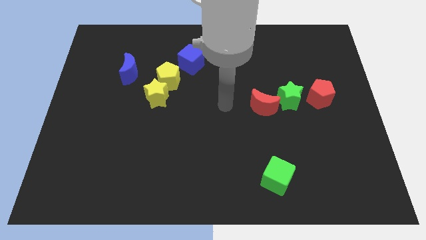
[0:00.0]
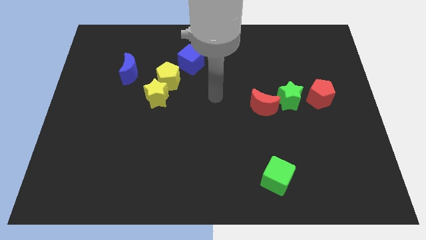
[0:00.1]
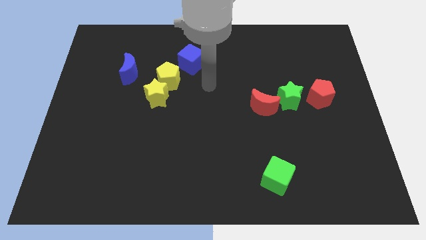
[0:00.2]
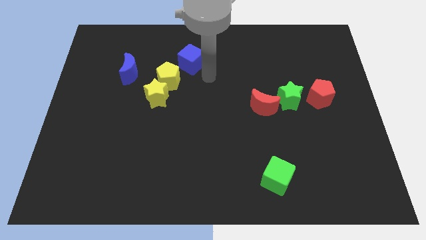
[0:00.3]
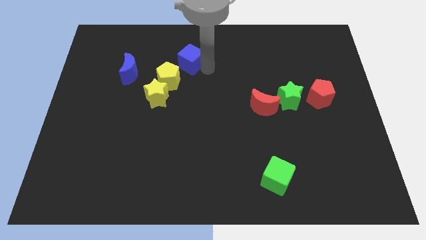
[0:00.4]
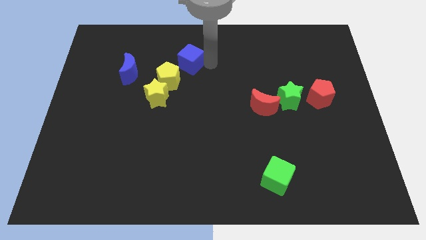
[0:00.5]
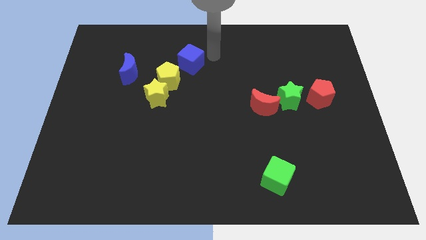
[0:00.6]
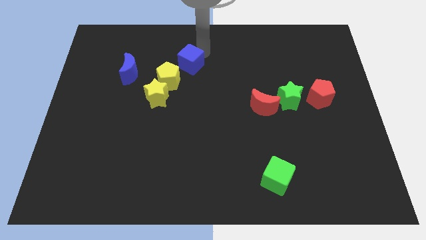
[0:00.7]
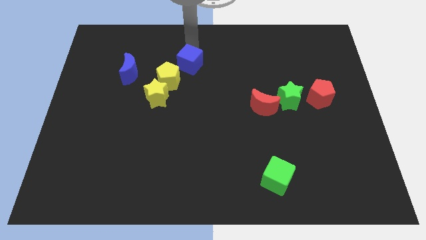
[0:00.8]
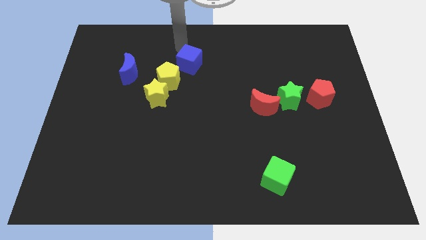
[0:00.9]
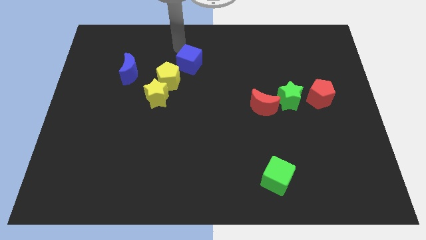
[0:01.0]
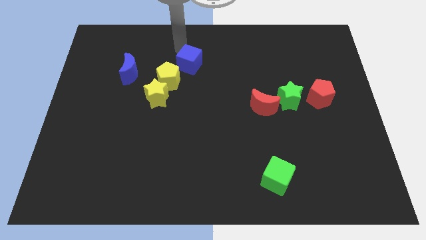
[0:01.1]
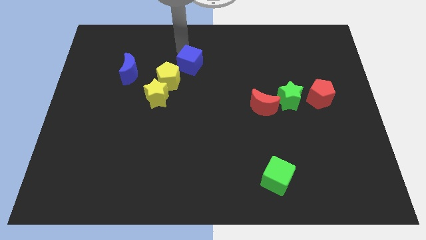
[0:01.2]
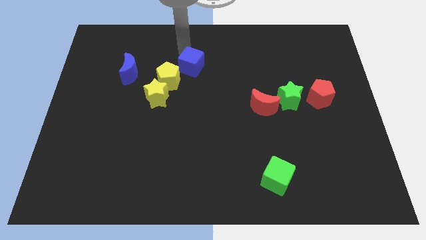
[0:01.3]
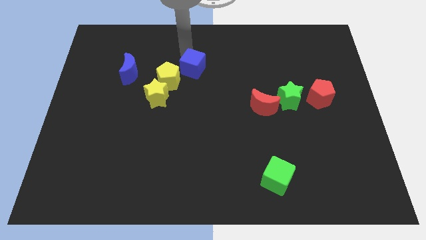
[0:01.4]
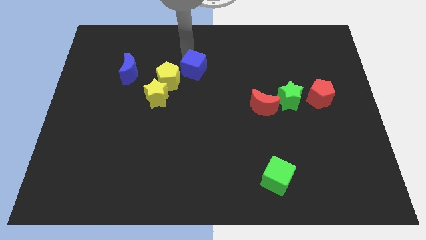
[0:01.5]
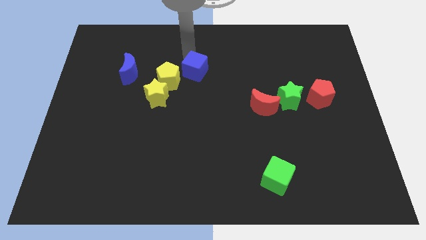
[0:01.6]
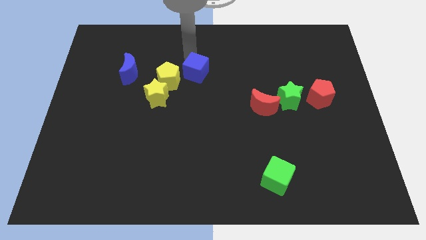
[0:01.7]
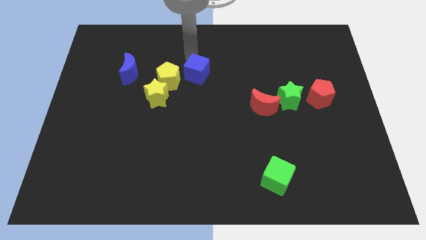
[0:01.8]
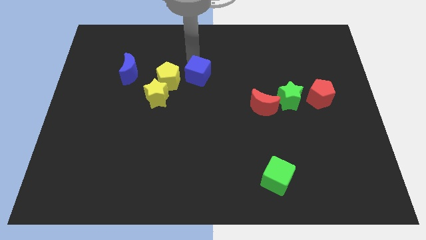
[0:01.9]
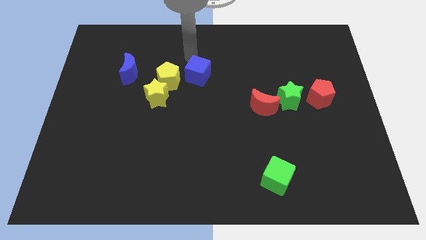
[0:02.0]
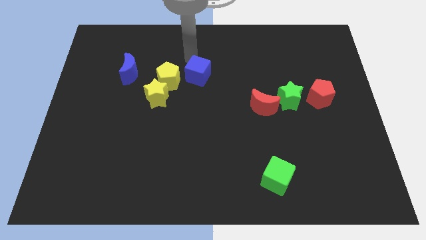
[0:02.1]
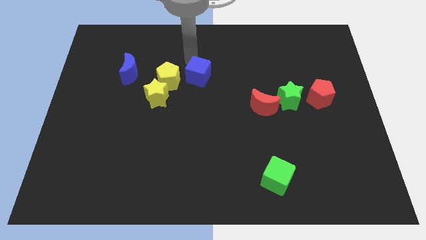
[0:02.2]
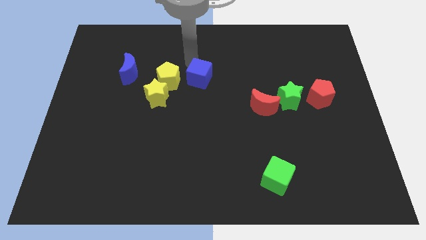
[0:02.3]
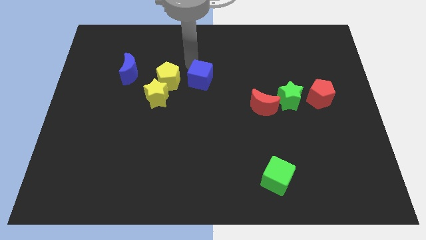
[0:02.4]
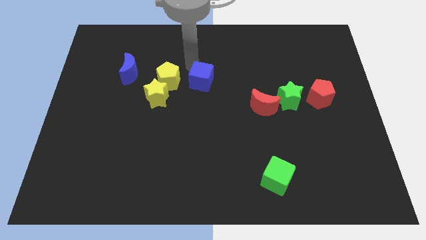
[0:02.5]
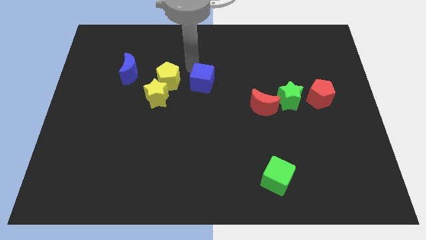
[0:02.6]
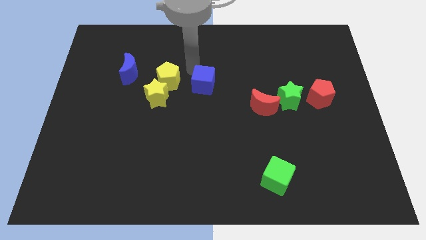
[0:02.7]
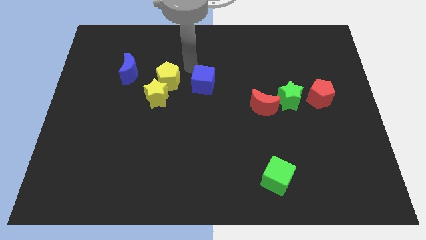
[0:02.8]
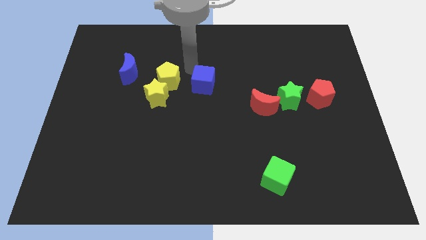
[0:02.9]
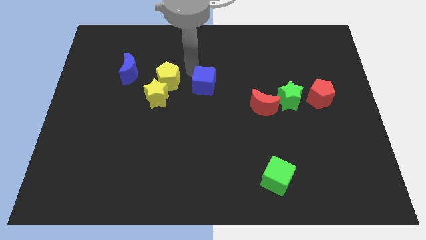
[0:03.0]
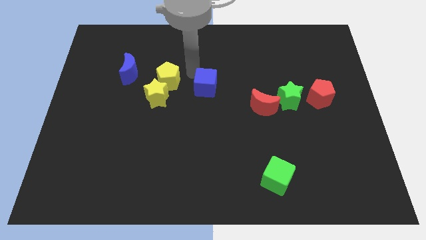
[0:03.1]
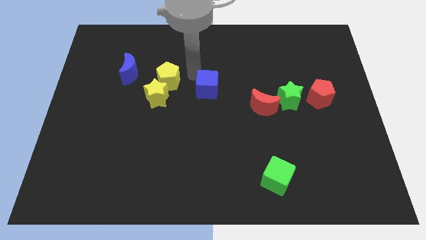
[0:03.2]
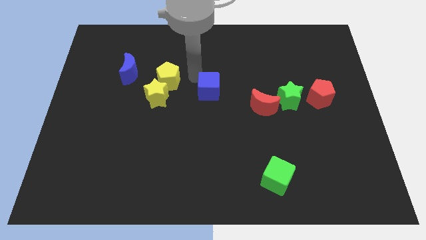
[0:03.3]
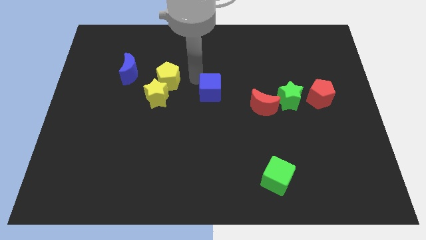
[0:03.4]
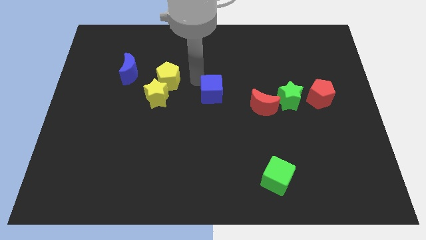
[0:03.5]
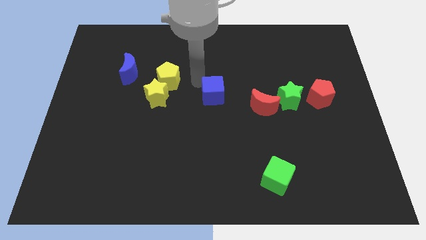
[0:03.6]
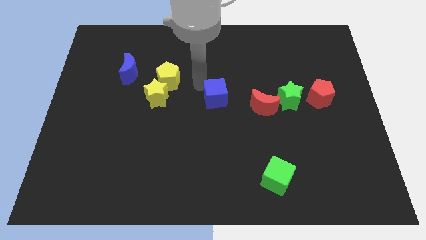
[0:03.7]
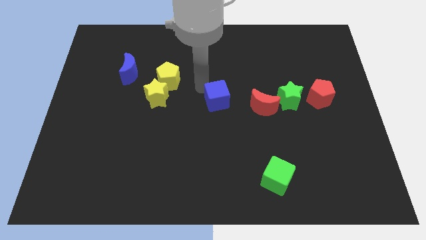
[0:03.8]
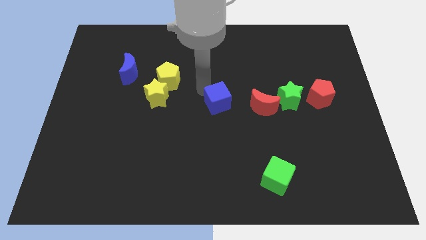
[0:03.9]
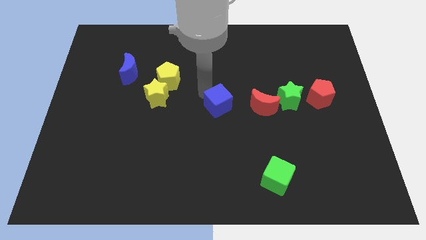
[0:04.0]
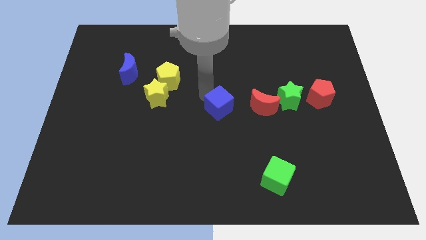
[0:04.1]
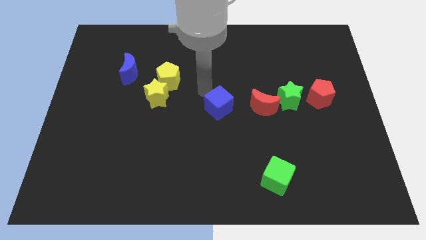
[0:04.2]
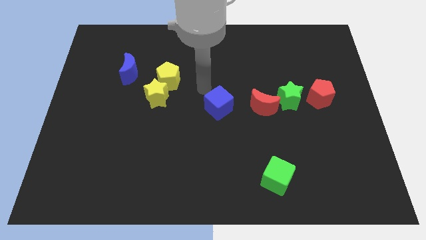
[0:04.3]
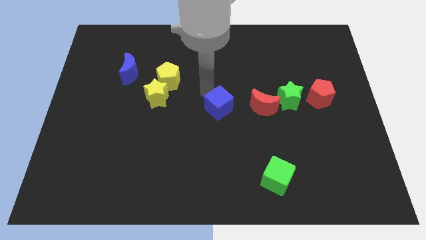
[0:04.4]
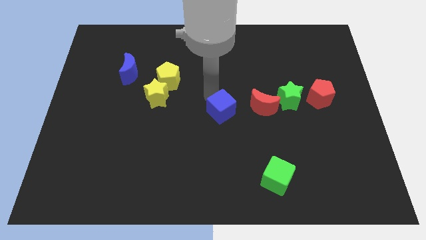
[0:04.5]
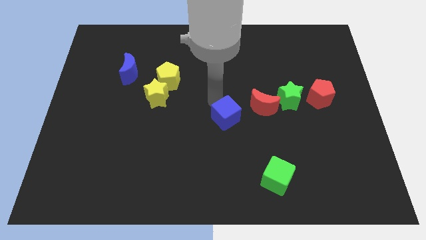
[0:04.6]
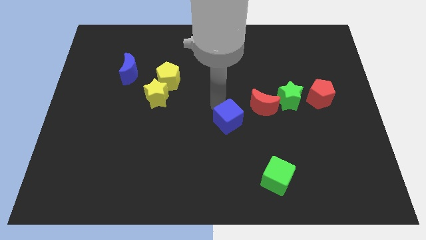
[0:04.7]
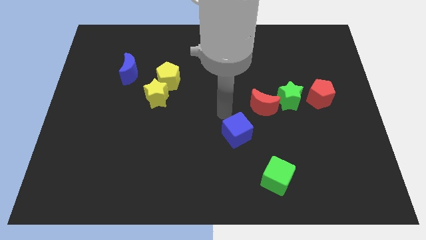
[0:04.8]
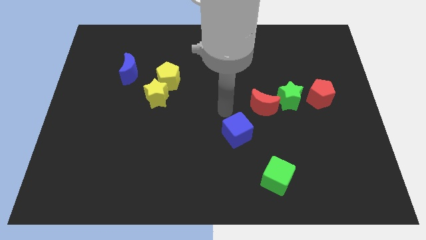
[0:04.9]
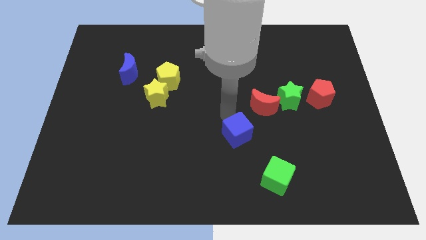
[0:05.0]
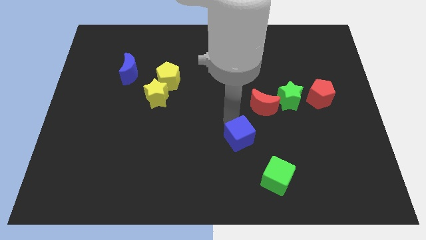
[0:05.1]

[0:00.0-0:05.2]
put the blue cube diagonally up and to the left of the green cube

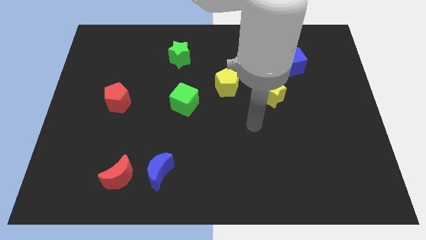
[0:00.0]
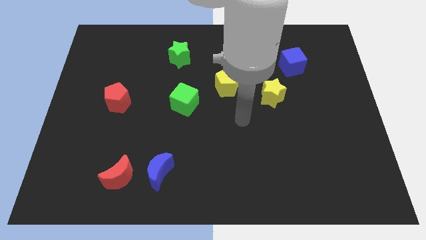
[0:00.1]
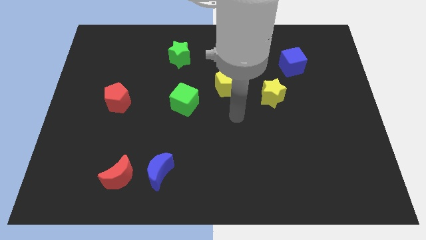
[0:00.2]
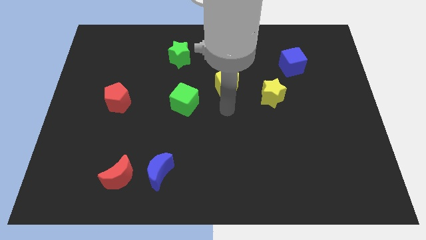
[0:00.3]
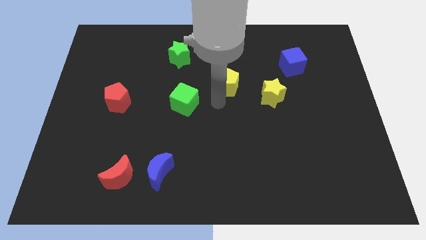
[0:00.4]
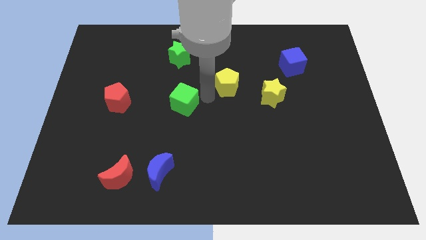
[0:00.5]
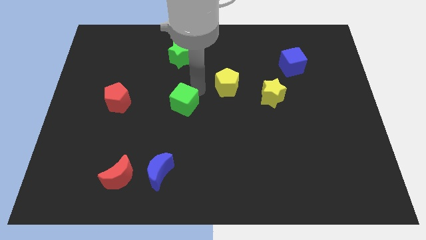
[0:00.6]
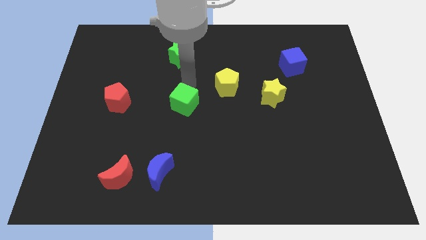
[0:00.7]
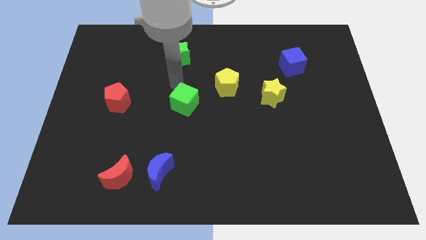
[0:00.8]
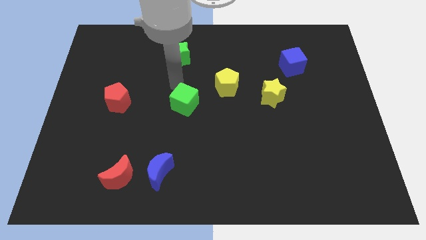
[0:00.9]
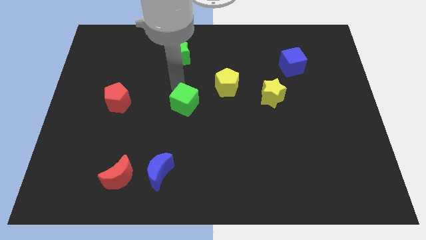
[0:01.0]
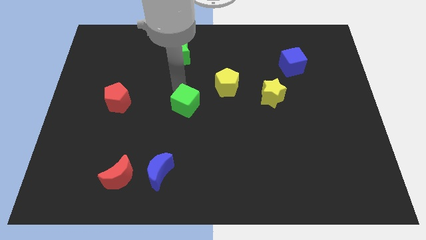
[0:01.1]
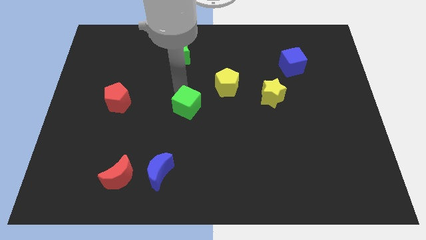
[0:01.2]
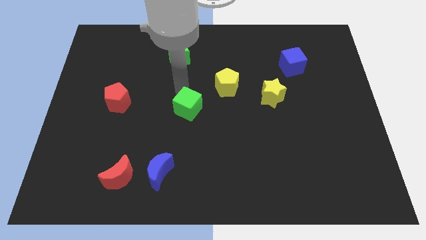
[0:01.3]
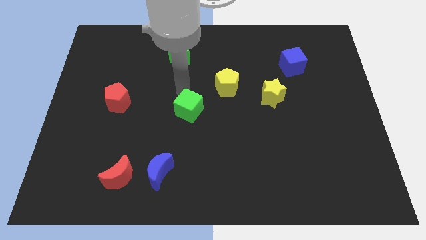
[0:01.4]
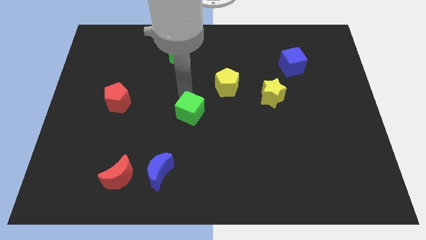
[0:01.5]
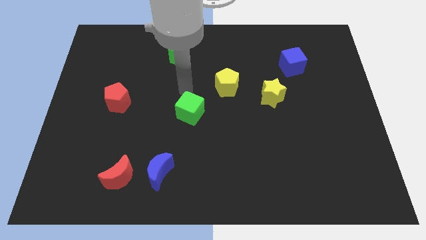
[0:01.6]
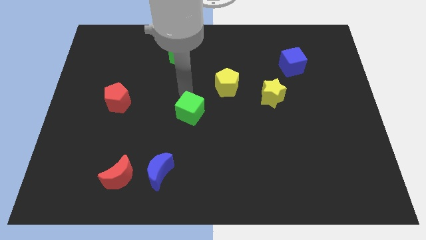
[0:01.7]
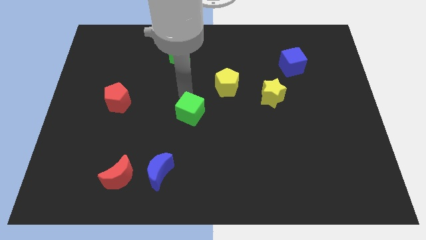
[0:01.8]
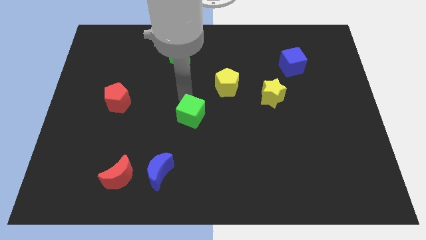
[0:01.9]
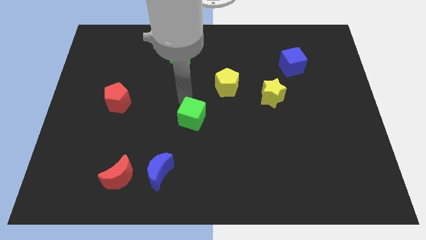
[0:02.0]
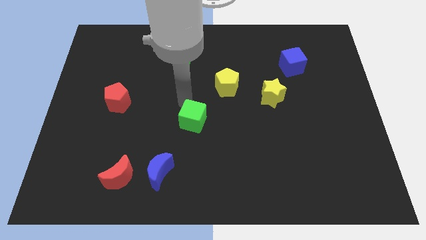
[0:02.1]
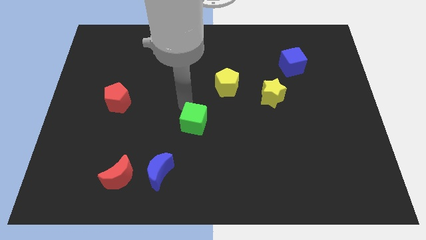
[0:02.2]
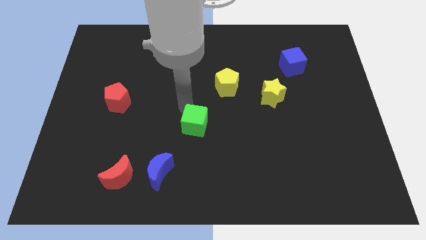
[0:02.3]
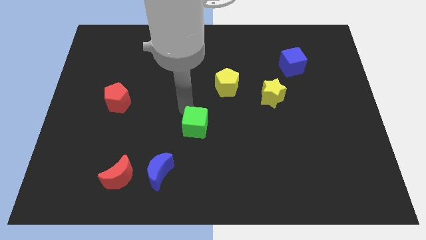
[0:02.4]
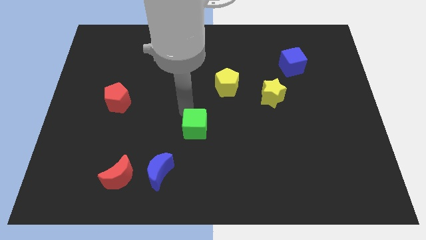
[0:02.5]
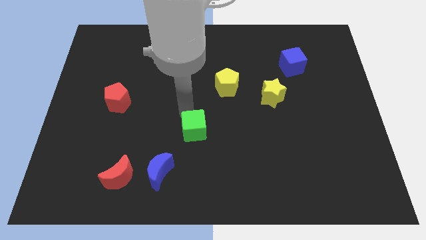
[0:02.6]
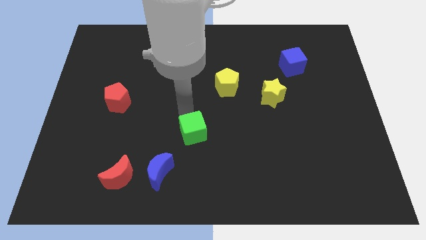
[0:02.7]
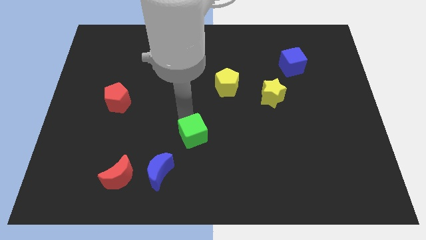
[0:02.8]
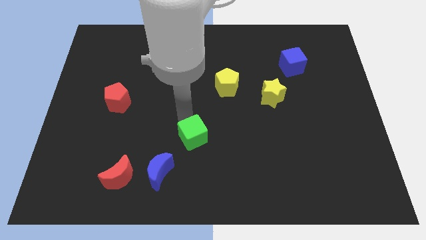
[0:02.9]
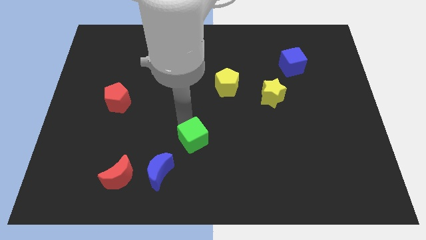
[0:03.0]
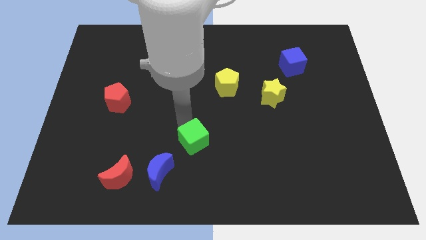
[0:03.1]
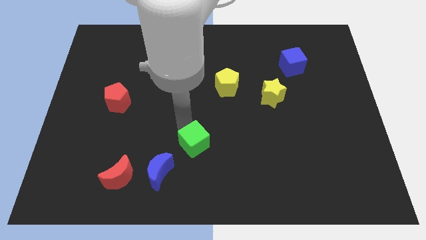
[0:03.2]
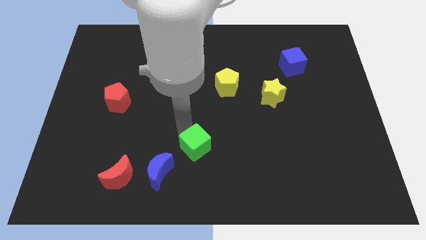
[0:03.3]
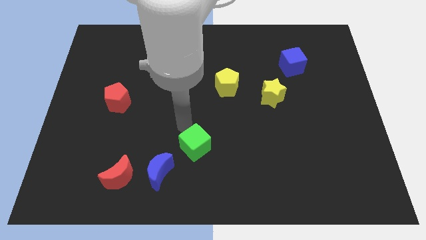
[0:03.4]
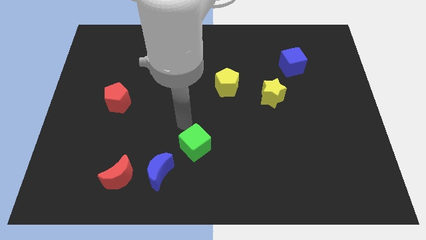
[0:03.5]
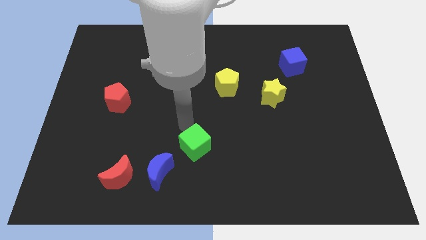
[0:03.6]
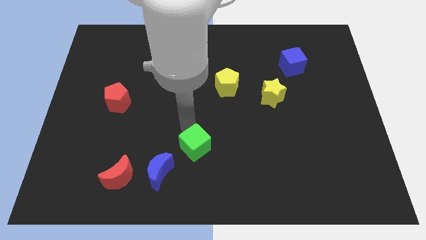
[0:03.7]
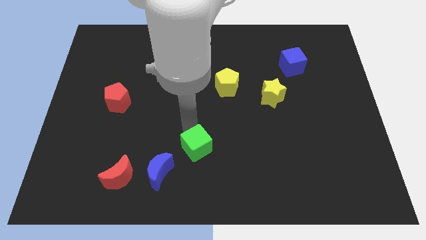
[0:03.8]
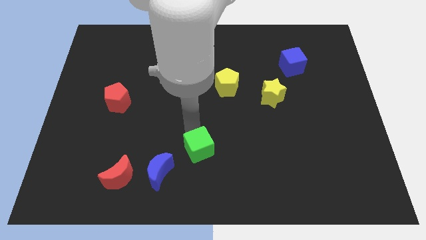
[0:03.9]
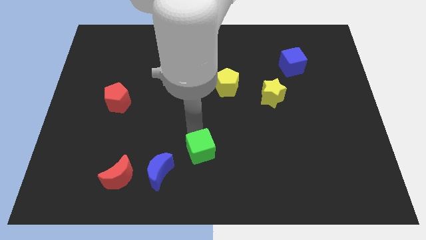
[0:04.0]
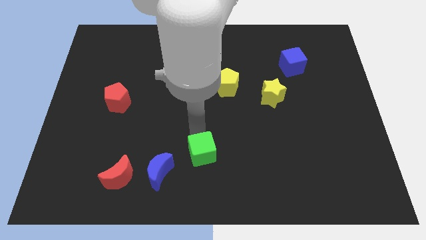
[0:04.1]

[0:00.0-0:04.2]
slide the green cube to the right side of the blue moon
